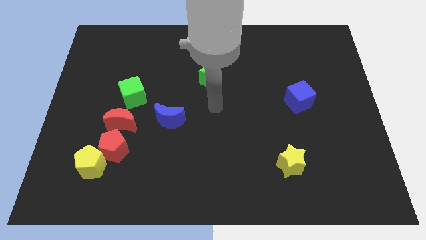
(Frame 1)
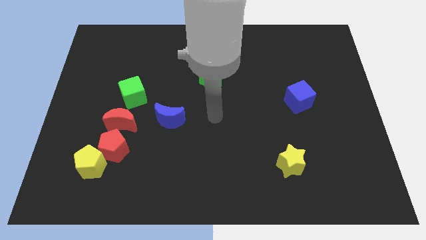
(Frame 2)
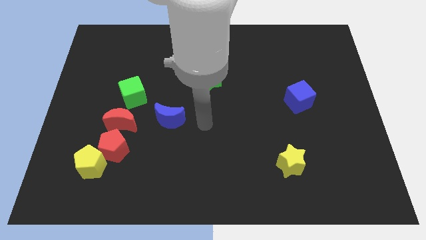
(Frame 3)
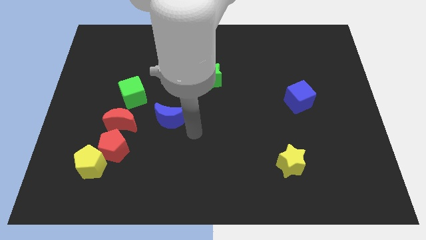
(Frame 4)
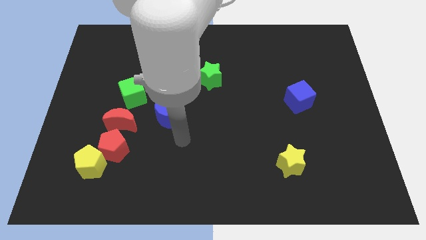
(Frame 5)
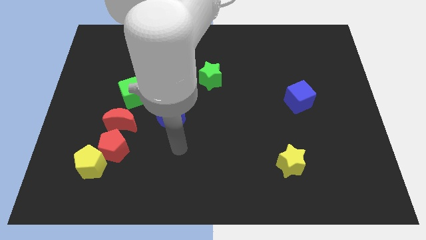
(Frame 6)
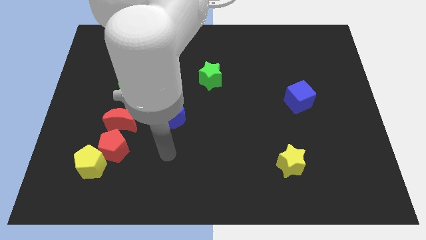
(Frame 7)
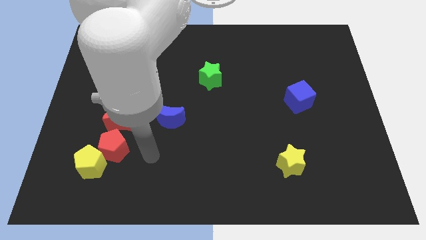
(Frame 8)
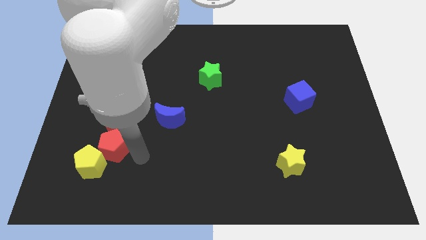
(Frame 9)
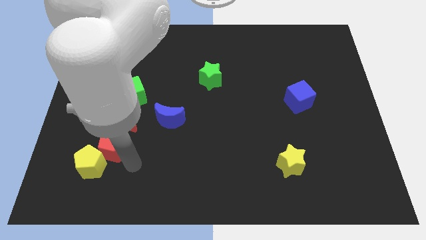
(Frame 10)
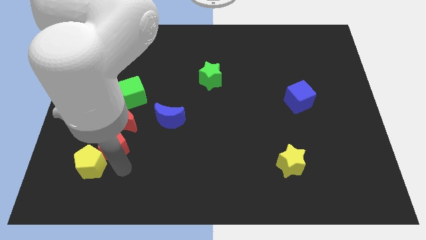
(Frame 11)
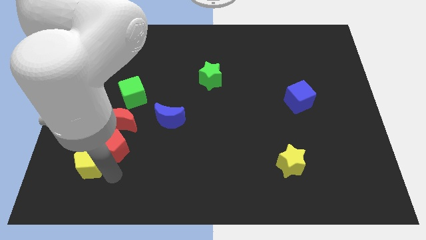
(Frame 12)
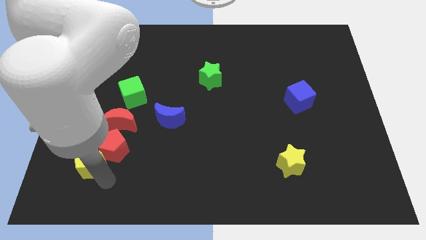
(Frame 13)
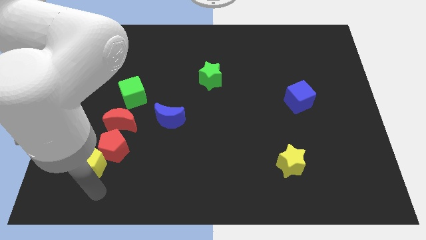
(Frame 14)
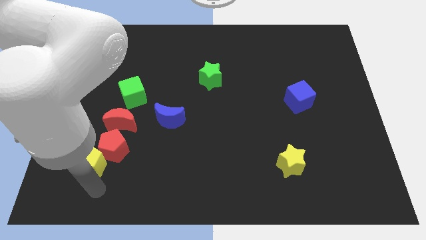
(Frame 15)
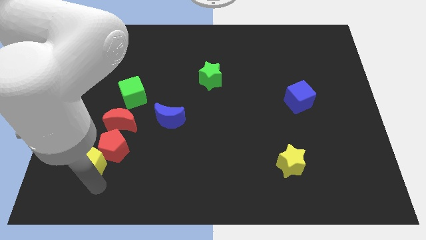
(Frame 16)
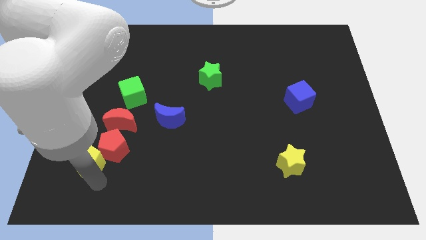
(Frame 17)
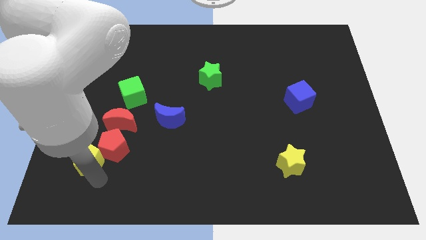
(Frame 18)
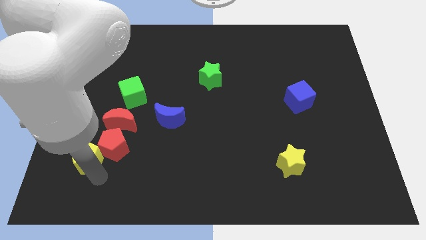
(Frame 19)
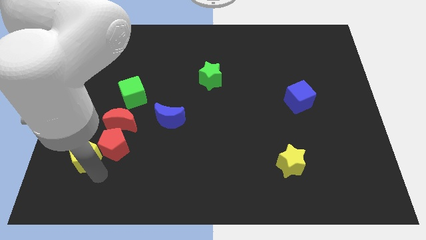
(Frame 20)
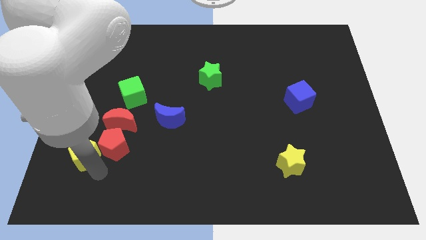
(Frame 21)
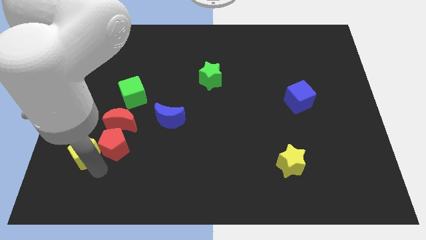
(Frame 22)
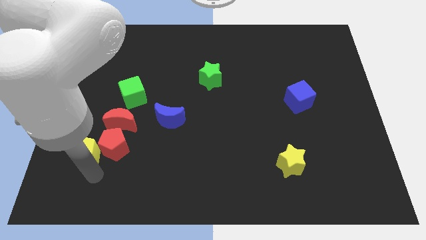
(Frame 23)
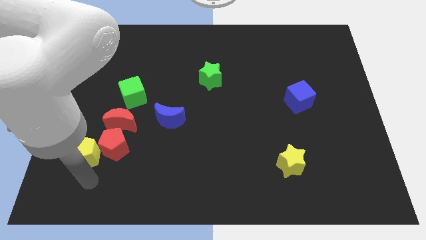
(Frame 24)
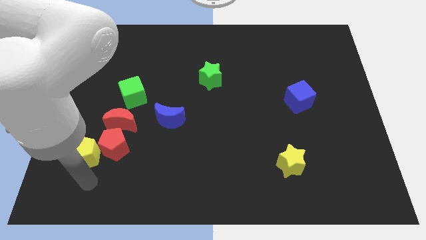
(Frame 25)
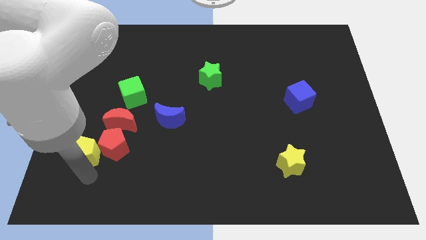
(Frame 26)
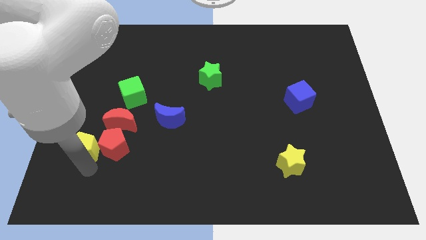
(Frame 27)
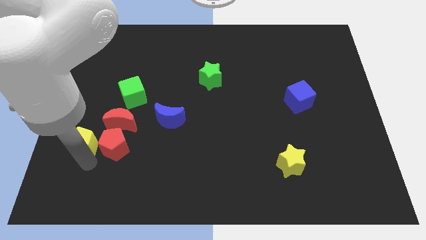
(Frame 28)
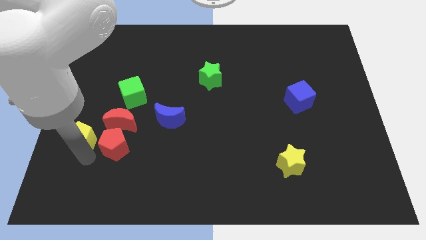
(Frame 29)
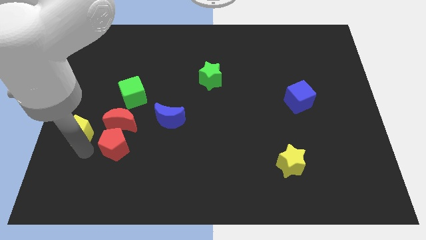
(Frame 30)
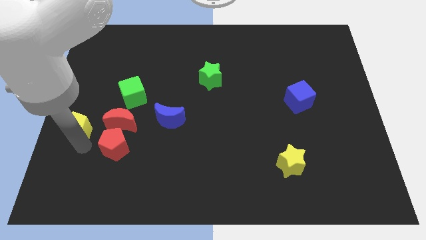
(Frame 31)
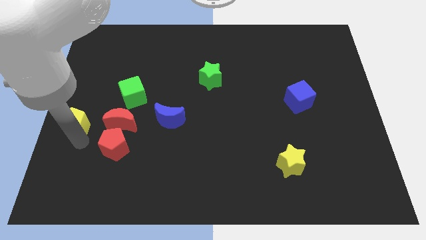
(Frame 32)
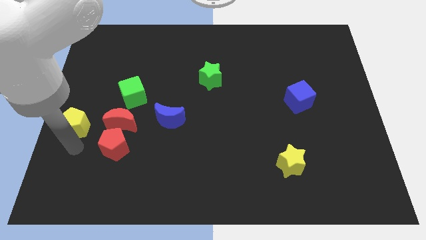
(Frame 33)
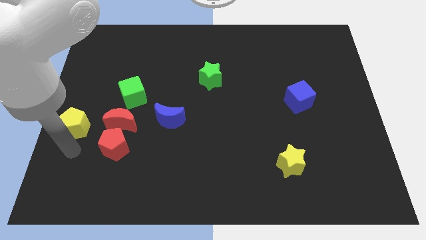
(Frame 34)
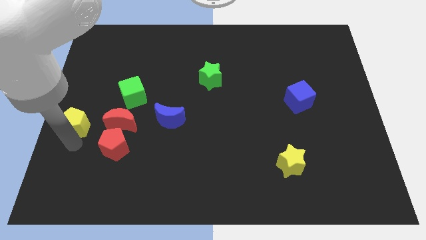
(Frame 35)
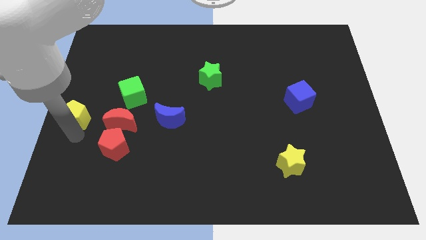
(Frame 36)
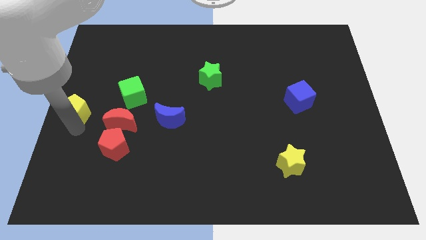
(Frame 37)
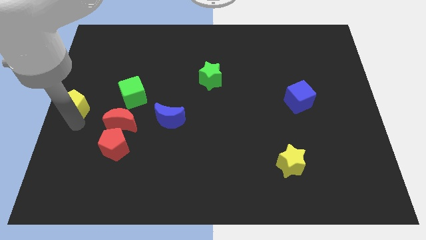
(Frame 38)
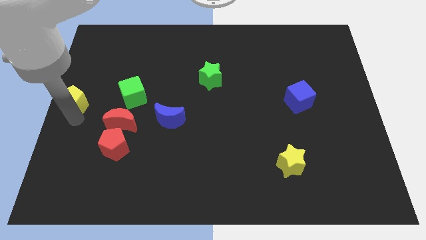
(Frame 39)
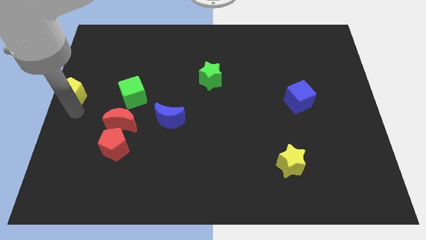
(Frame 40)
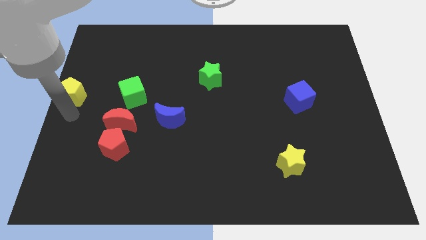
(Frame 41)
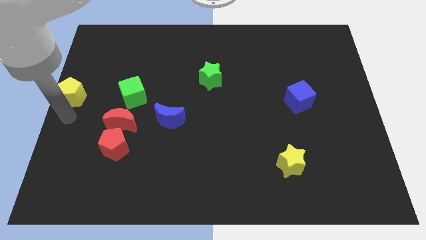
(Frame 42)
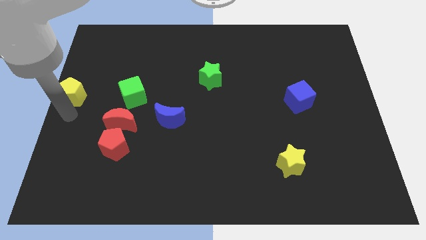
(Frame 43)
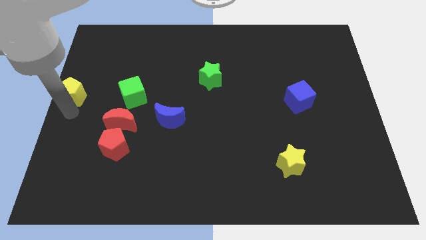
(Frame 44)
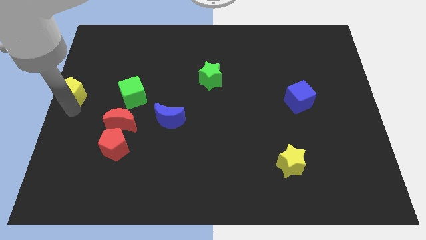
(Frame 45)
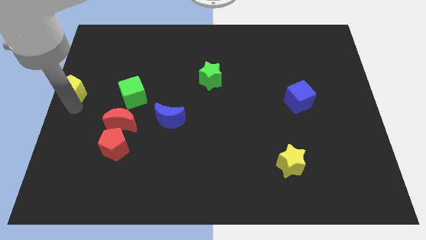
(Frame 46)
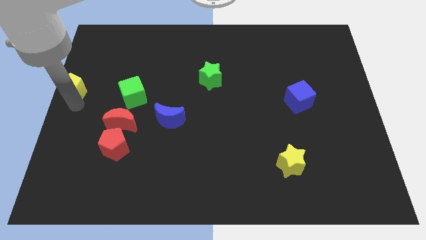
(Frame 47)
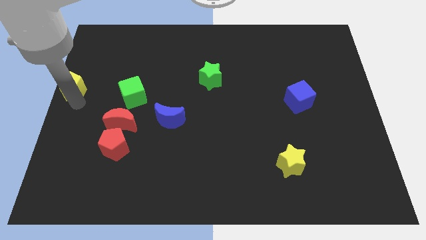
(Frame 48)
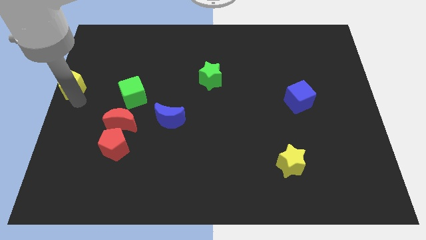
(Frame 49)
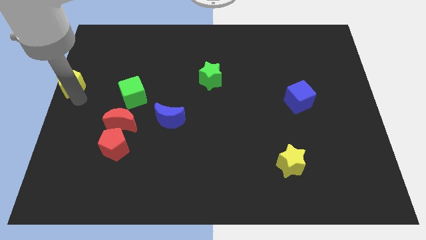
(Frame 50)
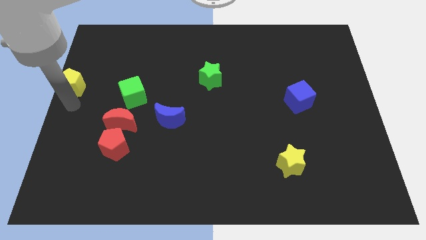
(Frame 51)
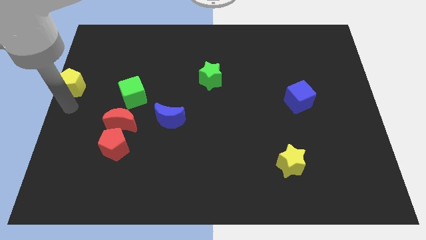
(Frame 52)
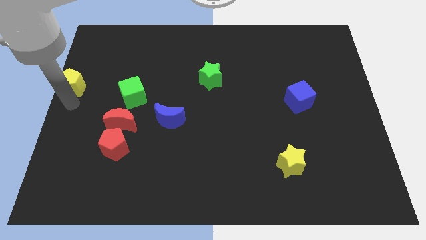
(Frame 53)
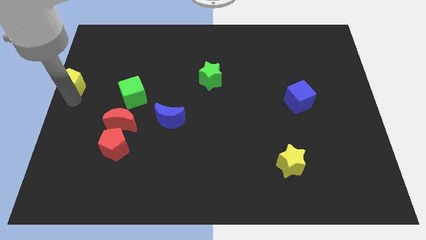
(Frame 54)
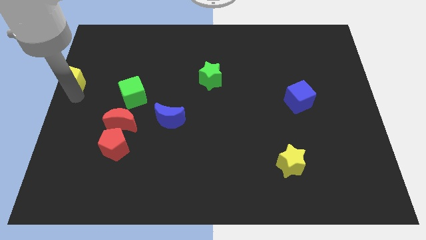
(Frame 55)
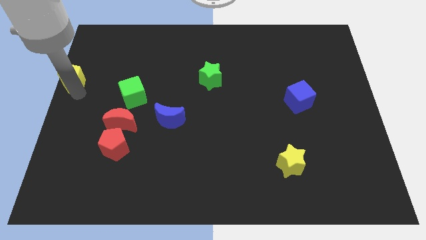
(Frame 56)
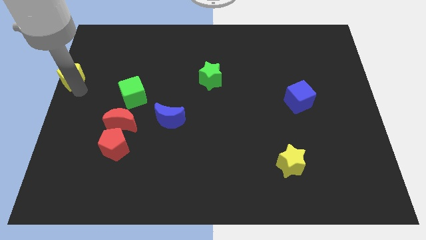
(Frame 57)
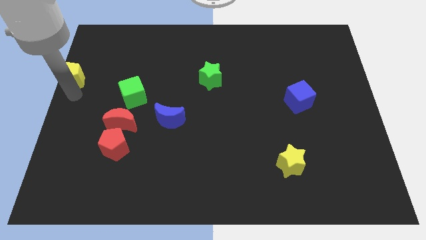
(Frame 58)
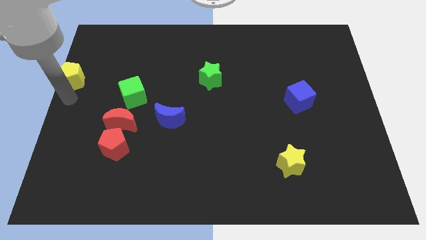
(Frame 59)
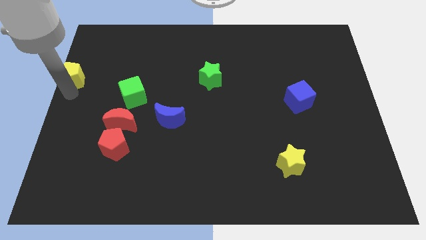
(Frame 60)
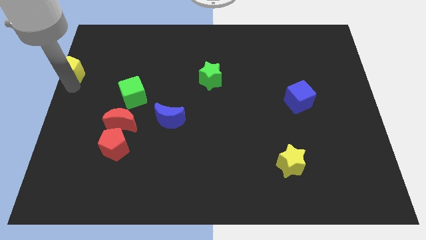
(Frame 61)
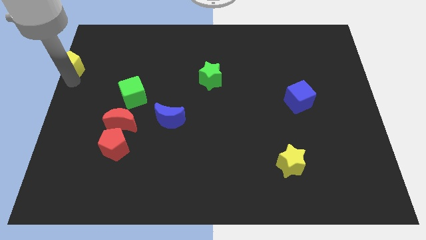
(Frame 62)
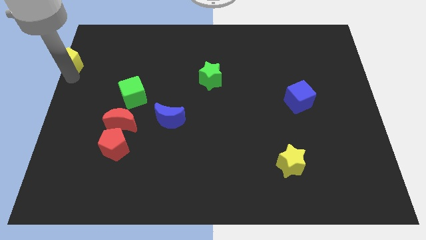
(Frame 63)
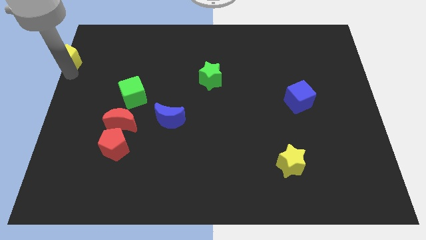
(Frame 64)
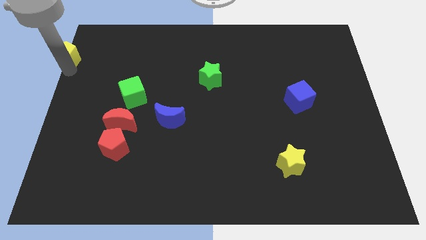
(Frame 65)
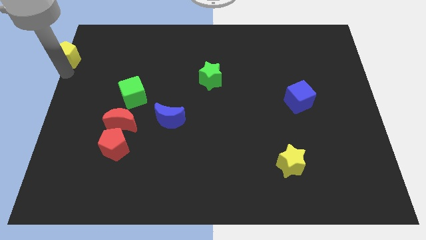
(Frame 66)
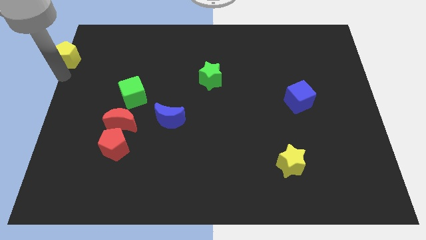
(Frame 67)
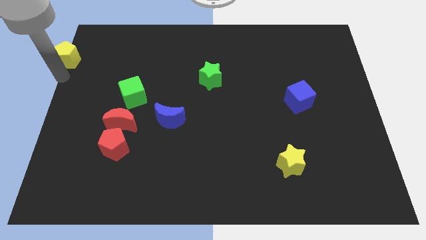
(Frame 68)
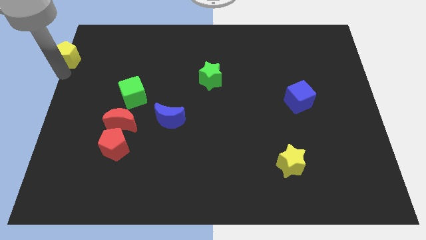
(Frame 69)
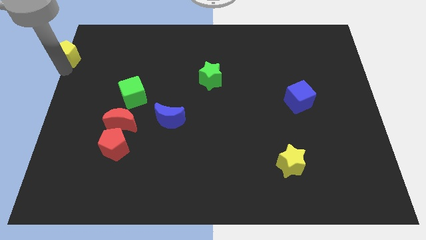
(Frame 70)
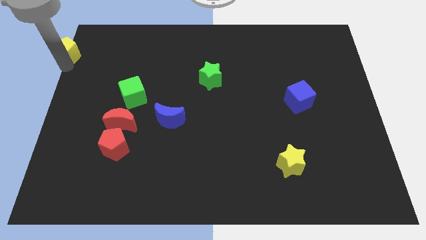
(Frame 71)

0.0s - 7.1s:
push the yellow pentagon to the top left
